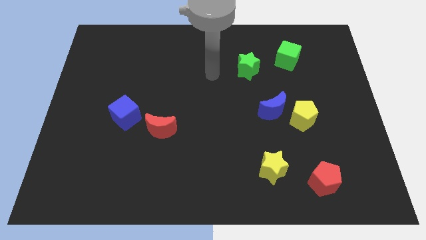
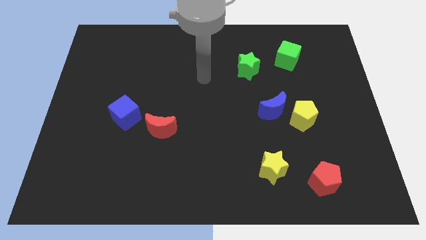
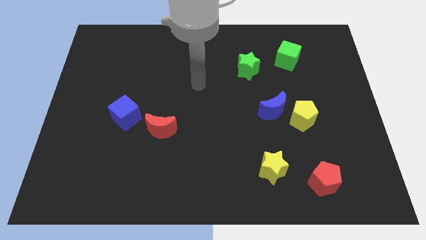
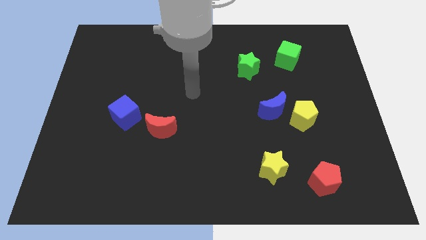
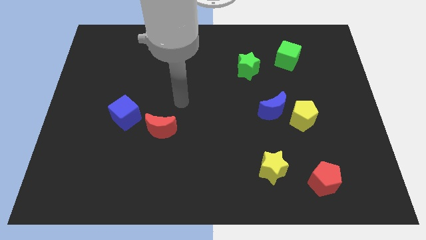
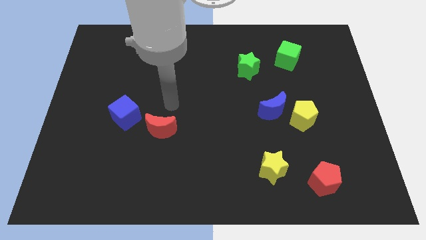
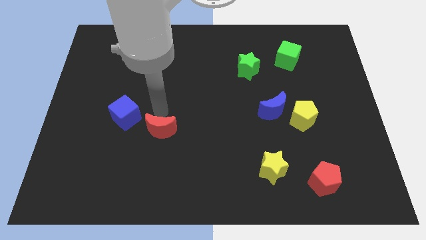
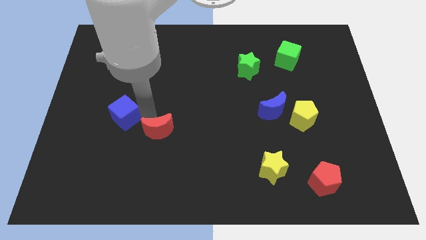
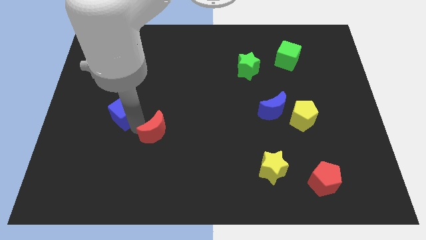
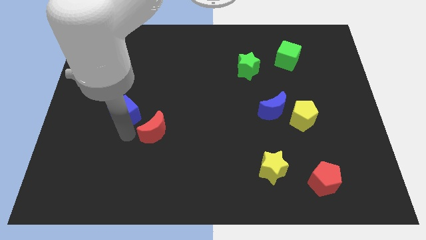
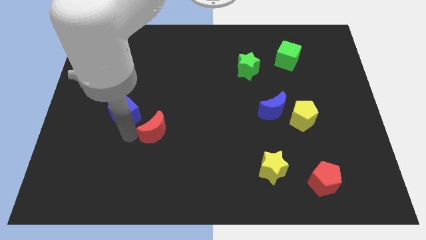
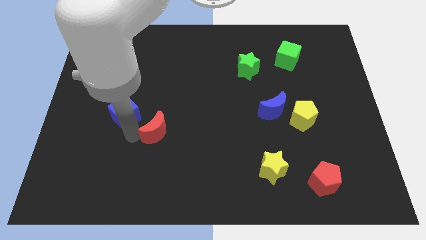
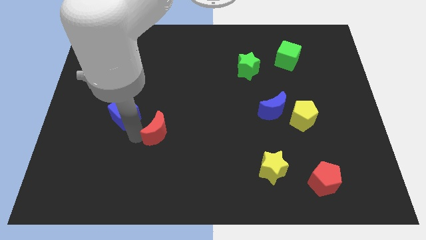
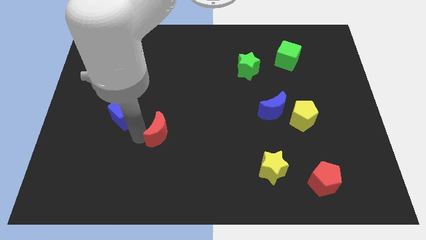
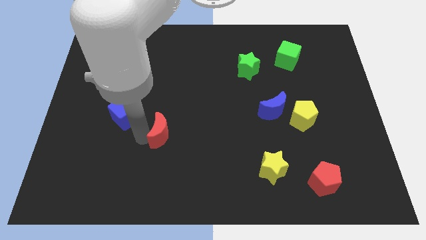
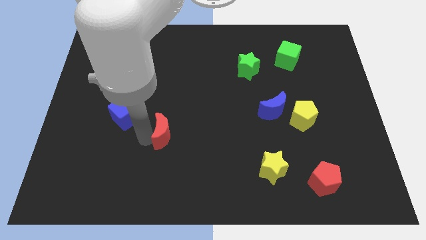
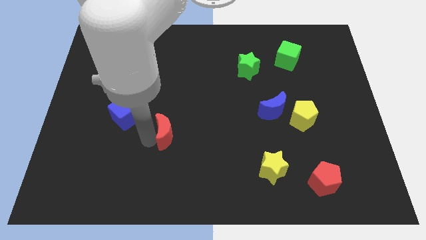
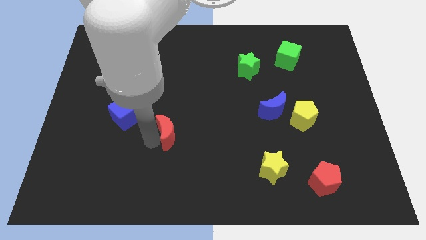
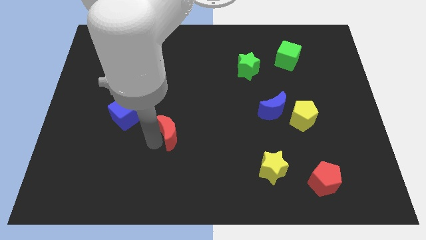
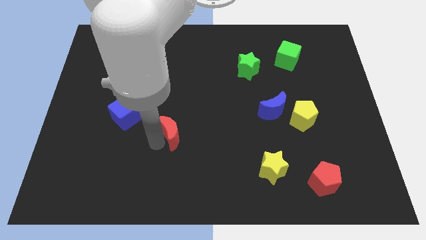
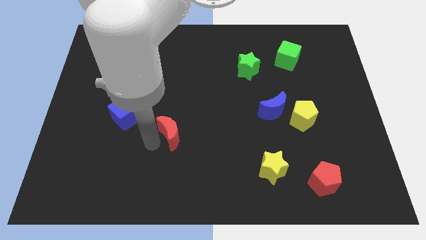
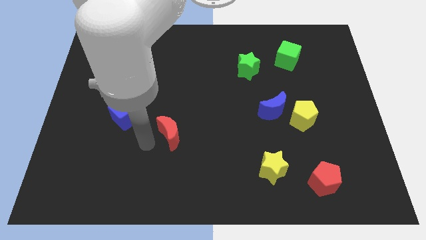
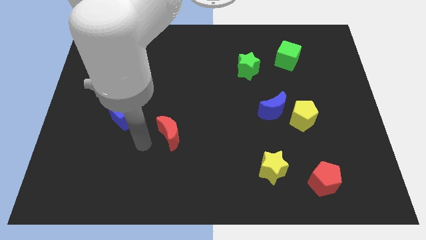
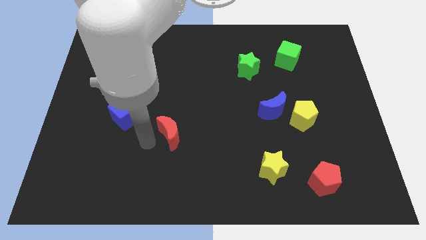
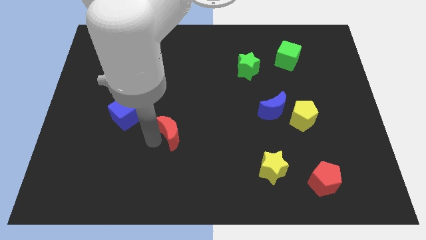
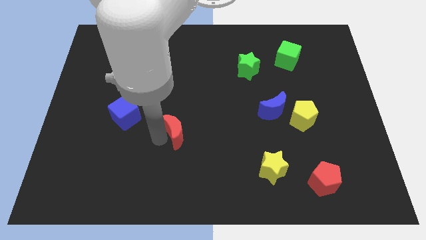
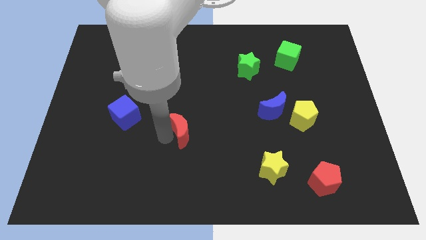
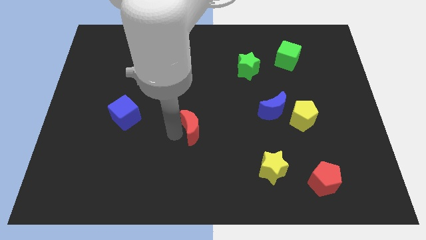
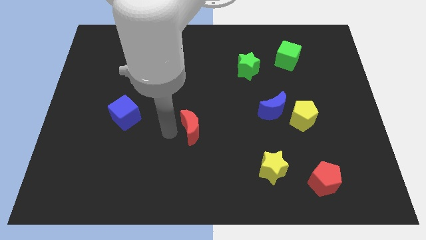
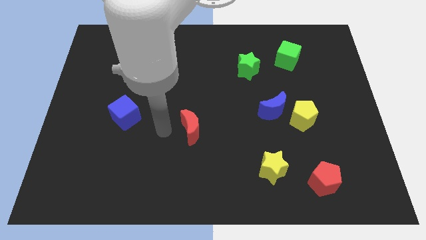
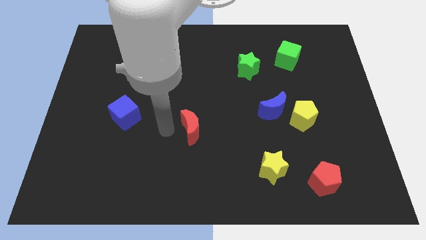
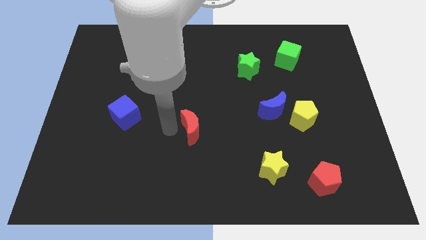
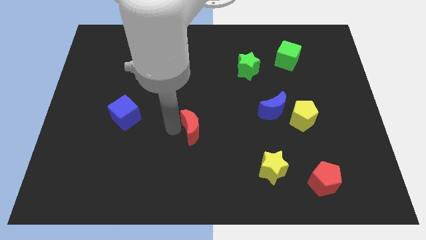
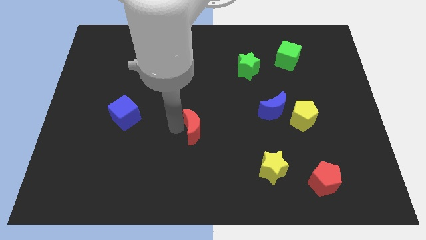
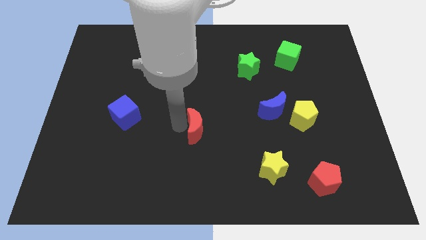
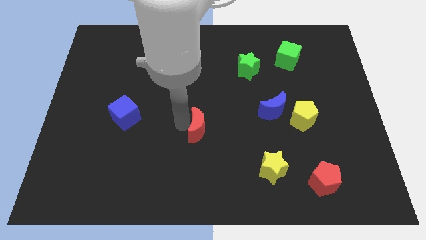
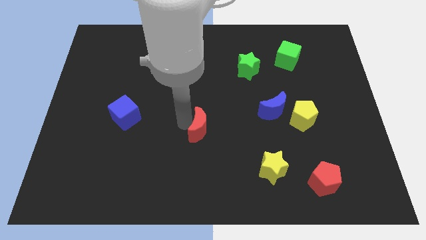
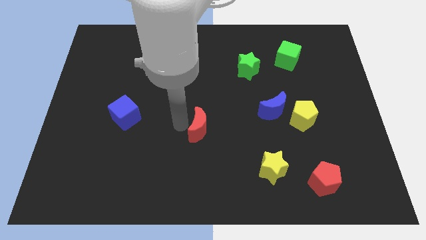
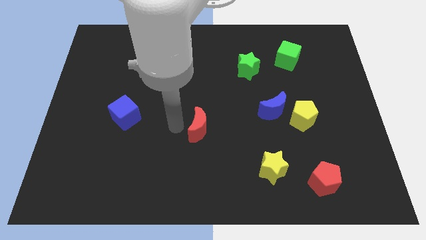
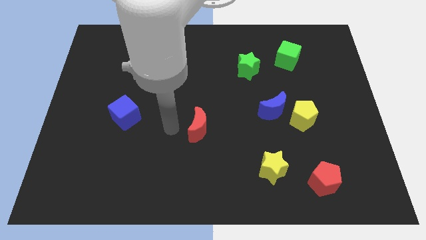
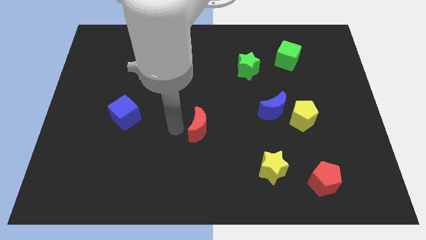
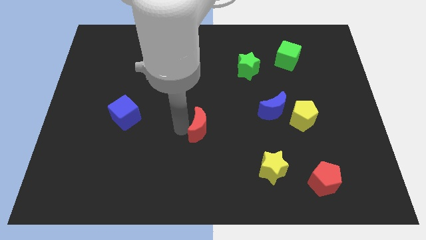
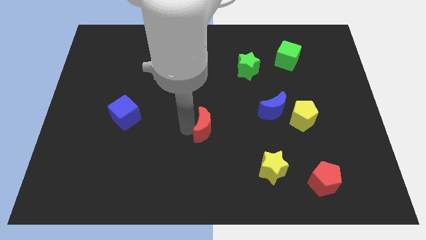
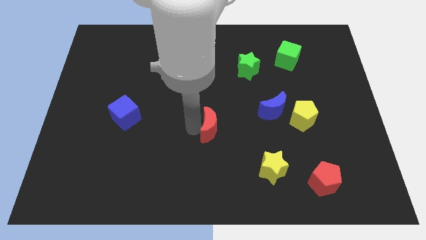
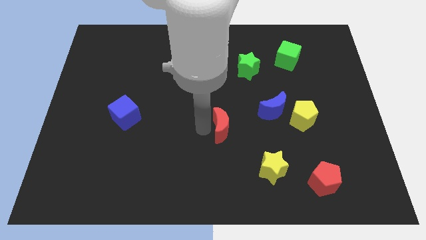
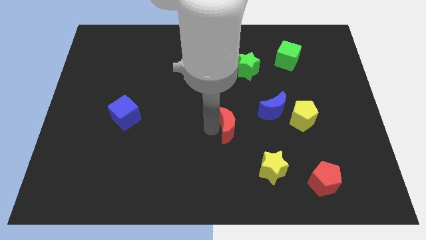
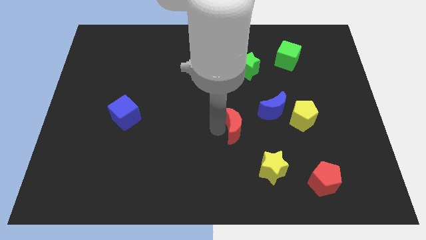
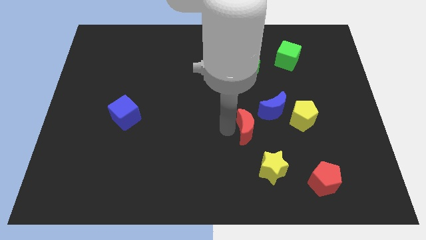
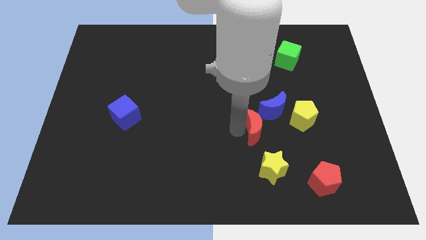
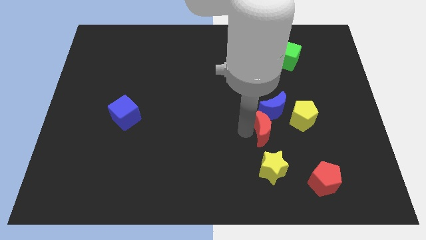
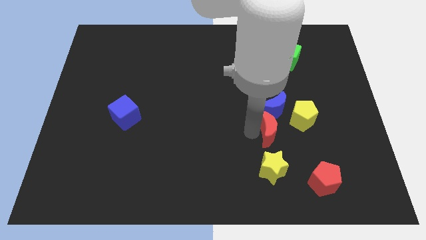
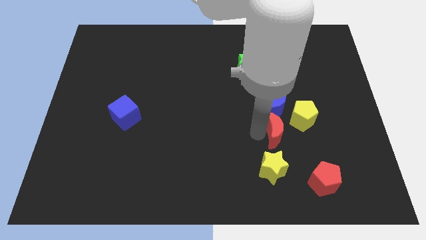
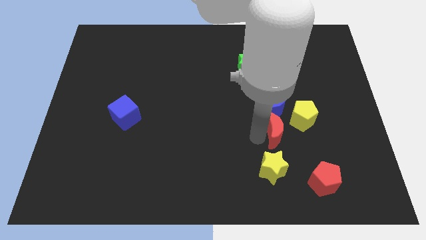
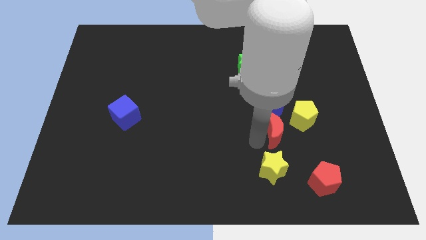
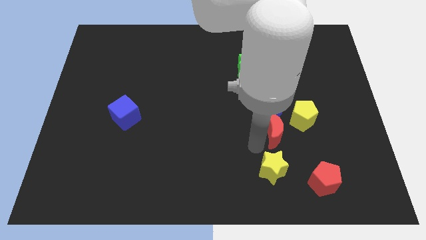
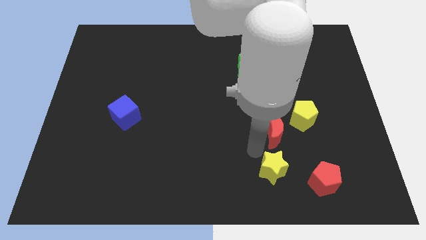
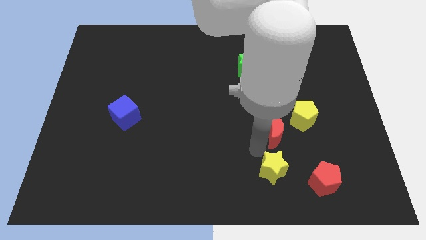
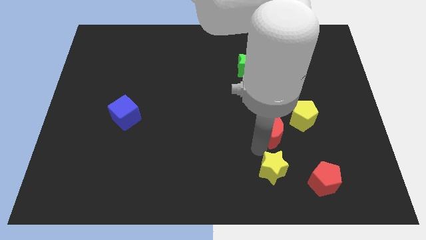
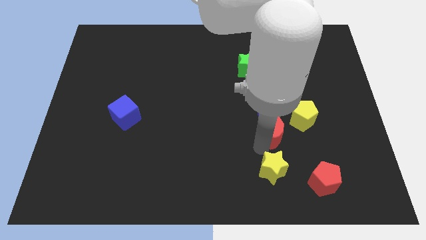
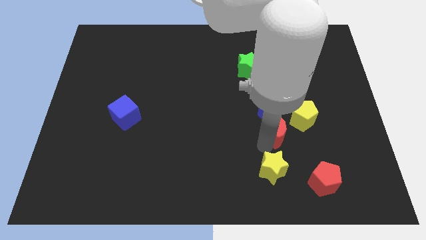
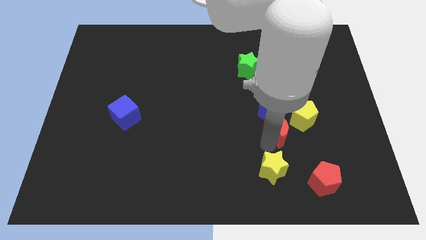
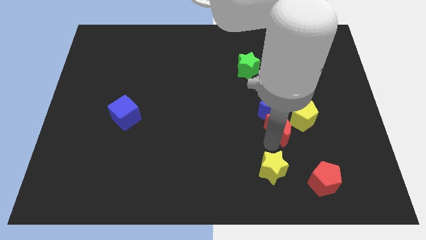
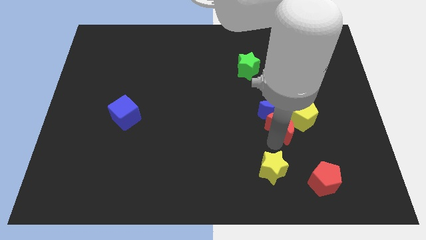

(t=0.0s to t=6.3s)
put the red moon to the yellow pentagon

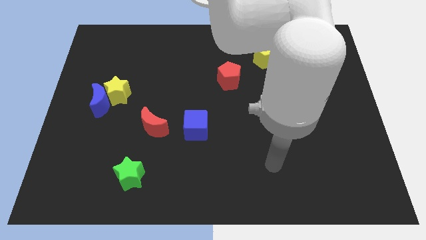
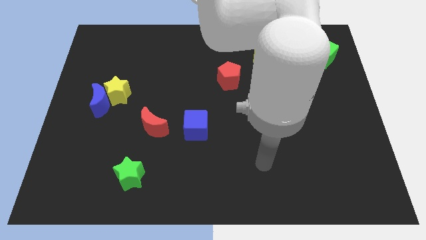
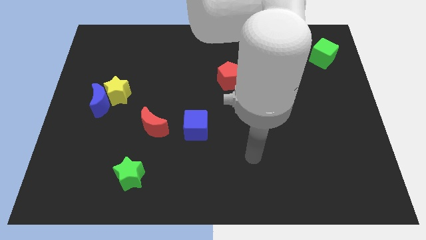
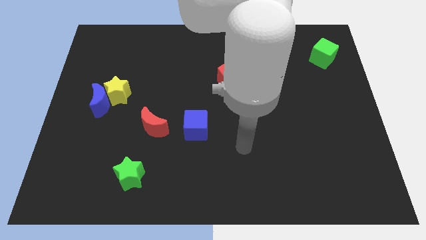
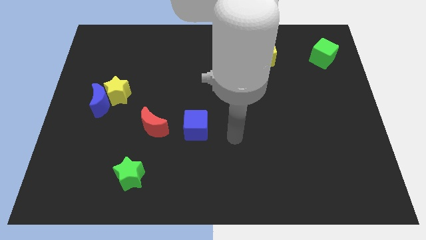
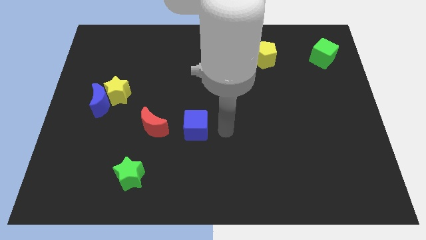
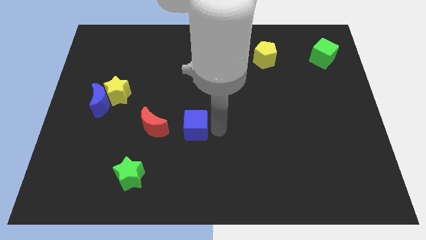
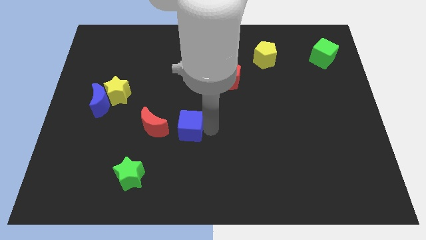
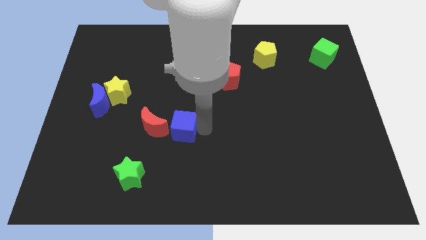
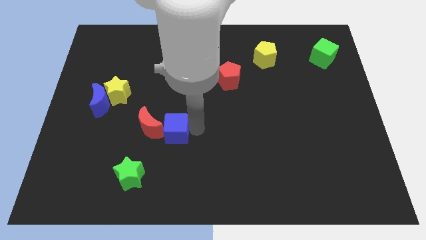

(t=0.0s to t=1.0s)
push the blue cube to the red moon
